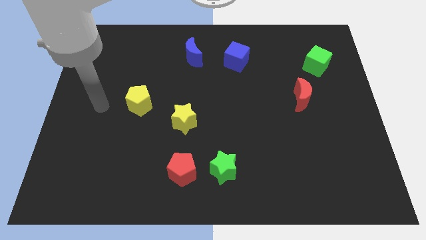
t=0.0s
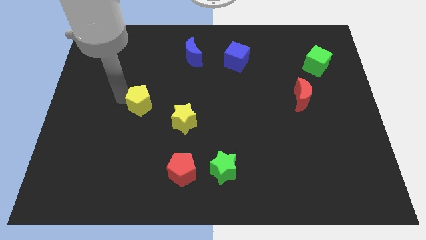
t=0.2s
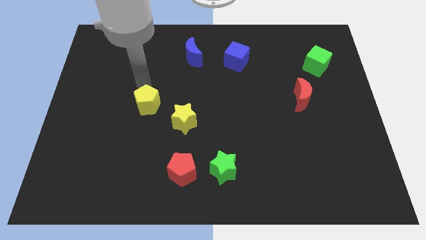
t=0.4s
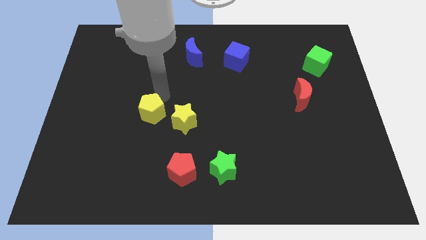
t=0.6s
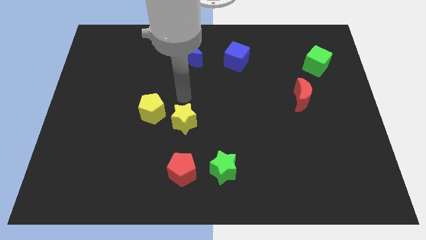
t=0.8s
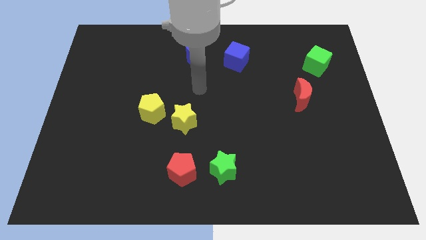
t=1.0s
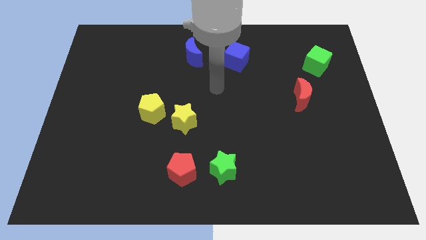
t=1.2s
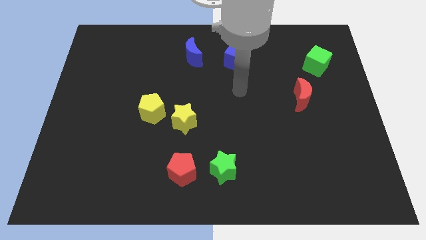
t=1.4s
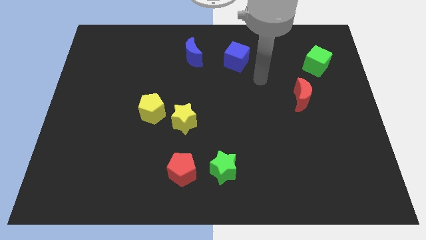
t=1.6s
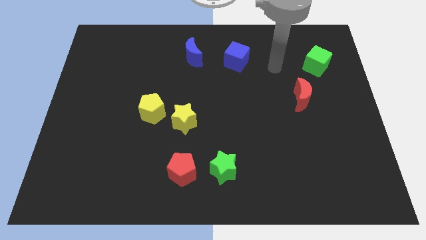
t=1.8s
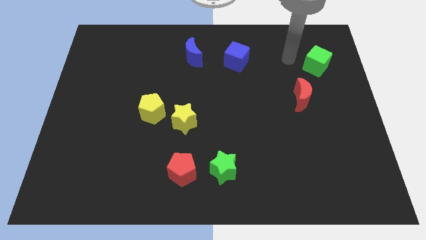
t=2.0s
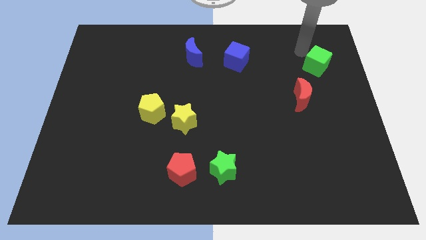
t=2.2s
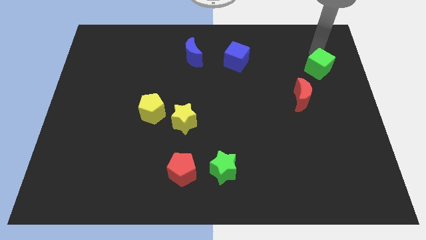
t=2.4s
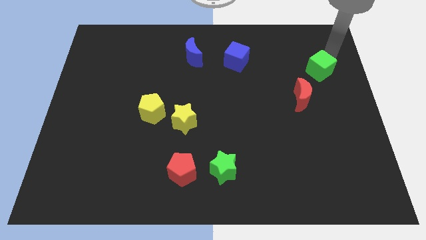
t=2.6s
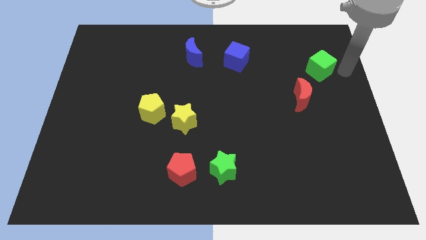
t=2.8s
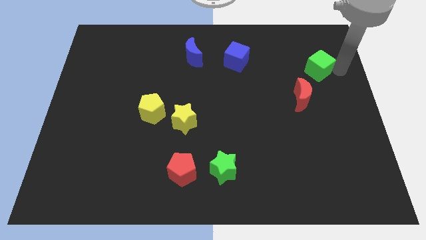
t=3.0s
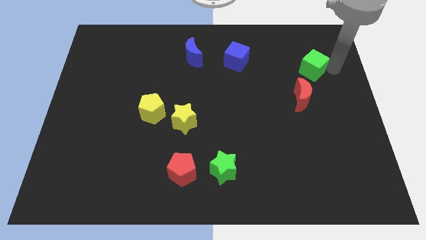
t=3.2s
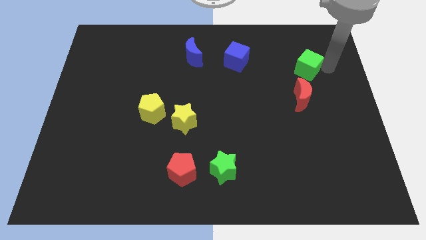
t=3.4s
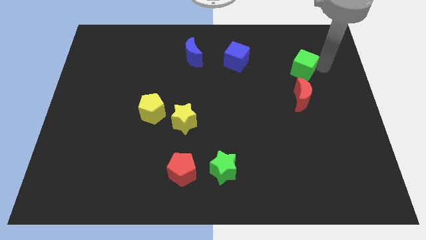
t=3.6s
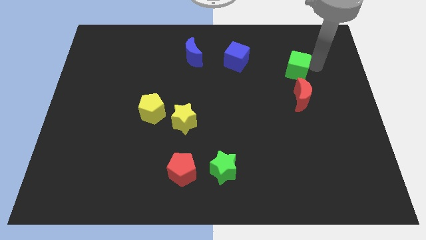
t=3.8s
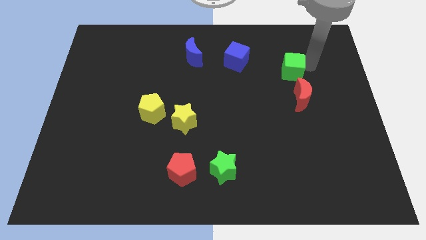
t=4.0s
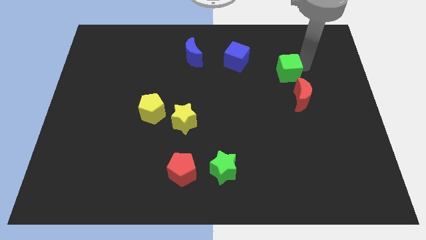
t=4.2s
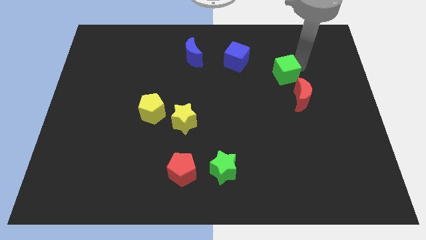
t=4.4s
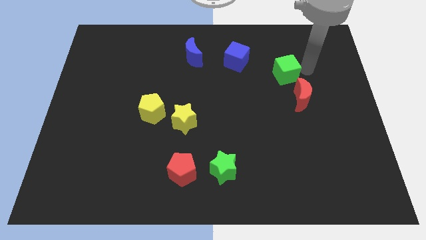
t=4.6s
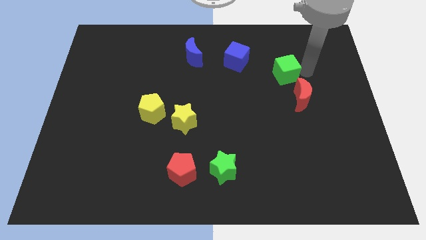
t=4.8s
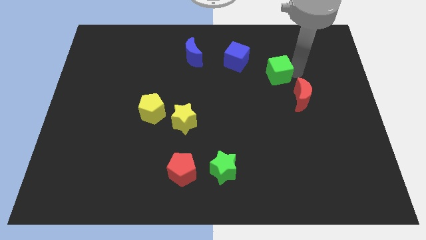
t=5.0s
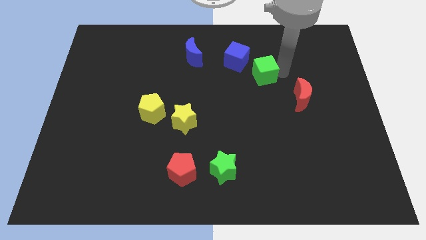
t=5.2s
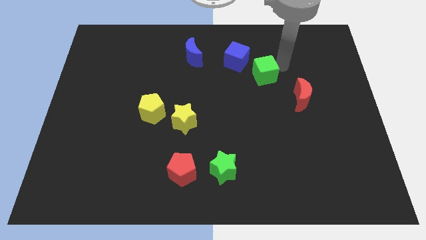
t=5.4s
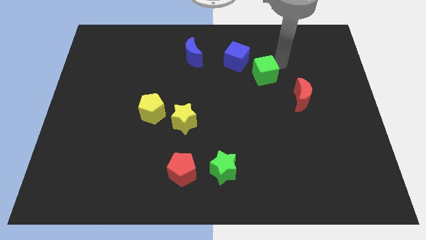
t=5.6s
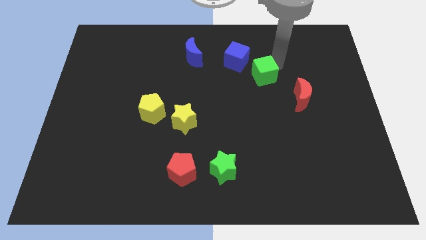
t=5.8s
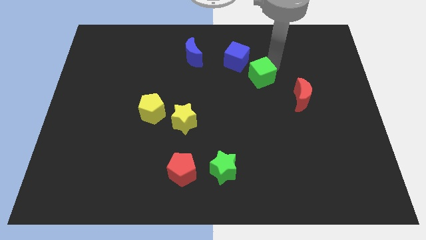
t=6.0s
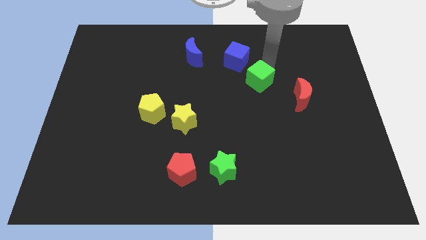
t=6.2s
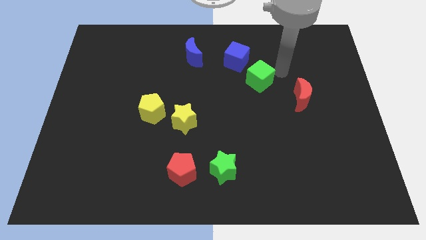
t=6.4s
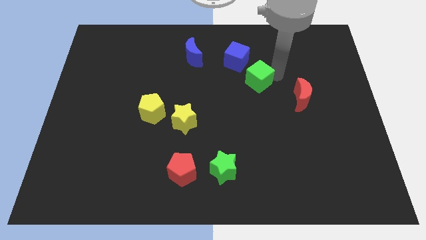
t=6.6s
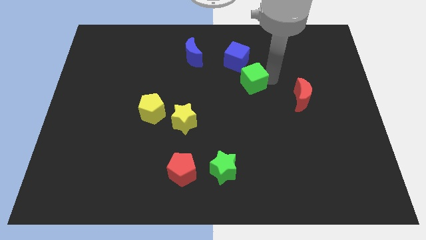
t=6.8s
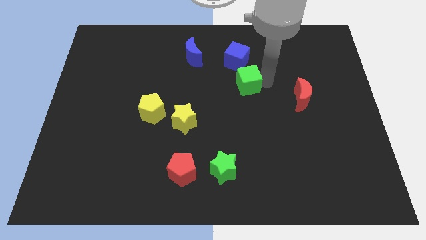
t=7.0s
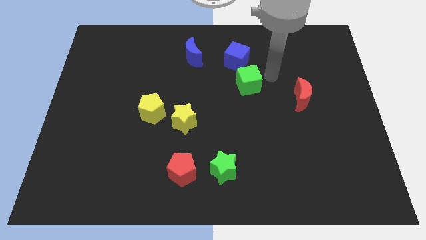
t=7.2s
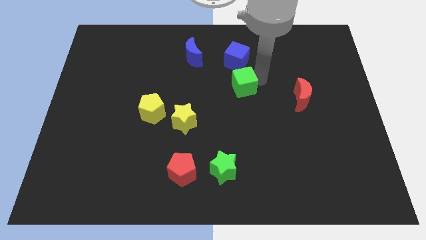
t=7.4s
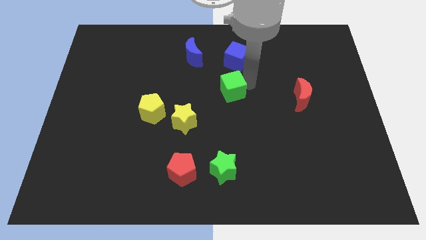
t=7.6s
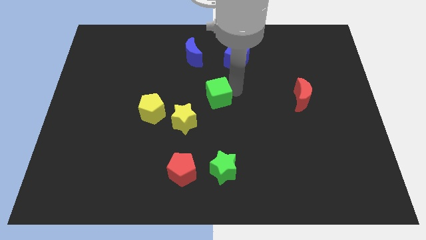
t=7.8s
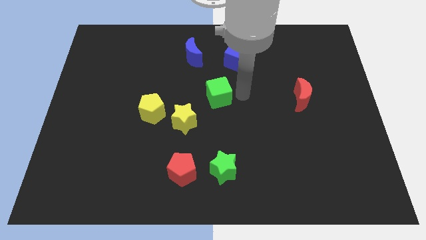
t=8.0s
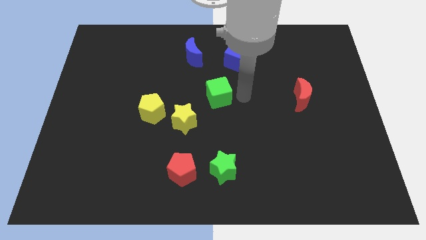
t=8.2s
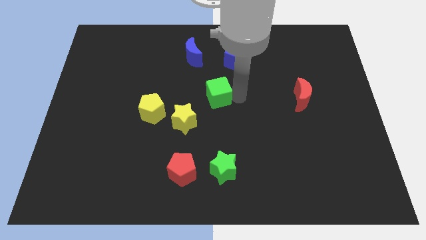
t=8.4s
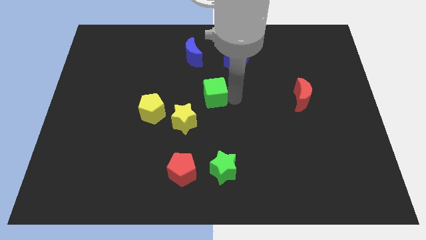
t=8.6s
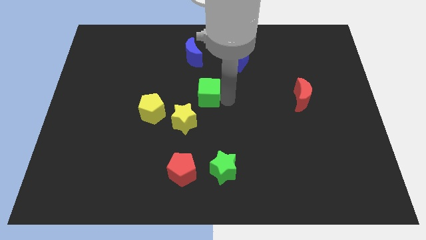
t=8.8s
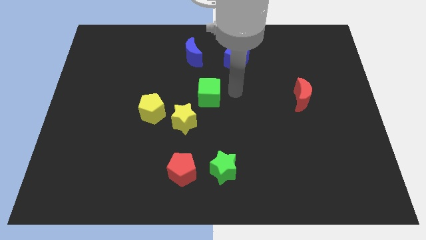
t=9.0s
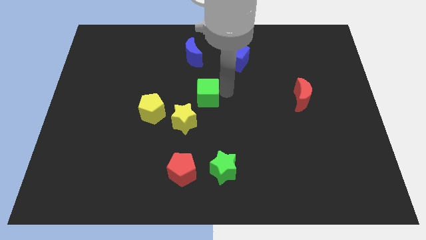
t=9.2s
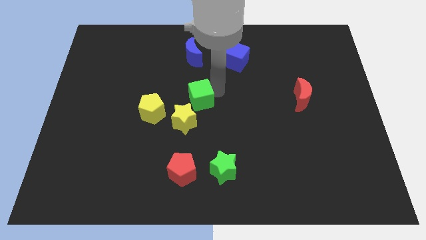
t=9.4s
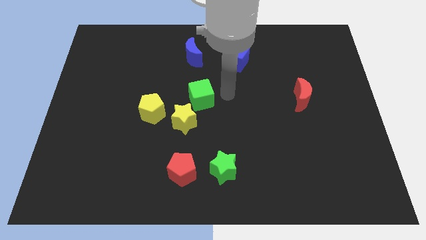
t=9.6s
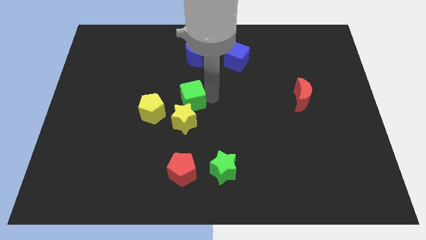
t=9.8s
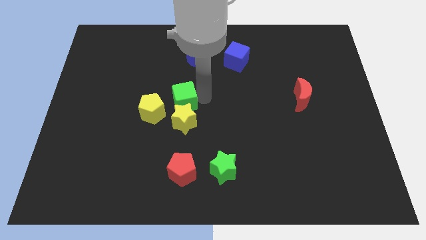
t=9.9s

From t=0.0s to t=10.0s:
push the green cube to the top left of the yellow star

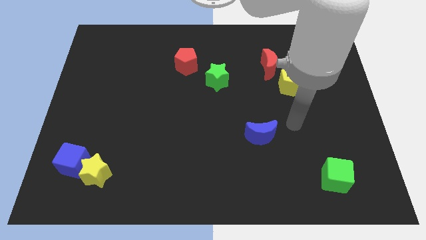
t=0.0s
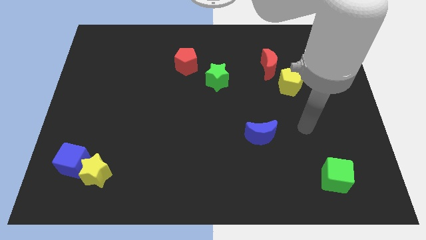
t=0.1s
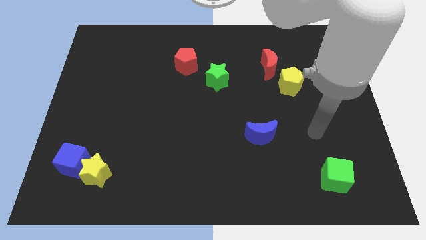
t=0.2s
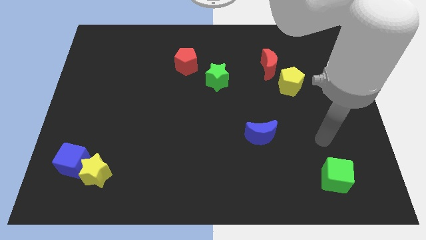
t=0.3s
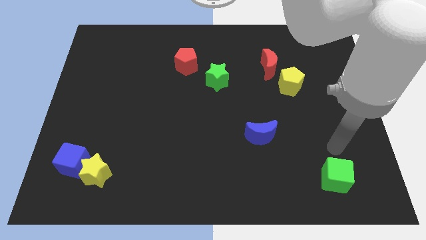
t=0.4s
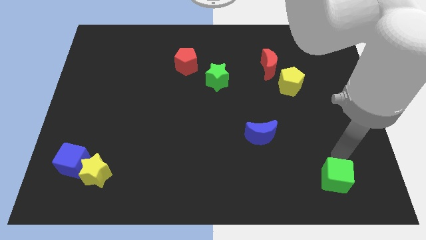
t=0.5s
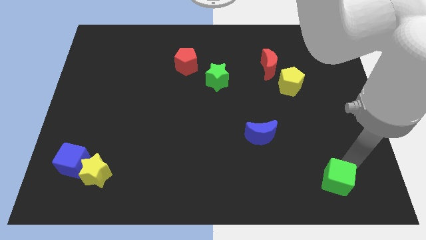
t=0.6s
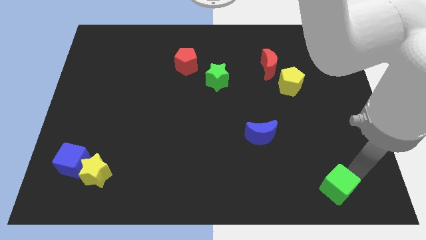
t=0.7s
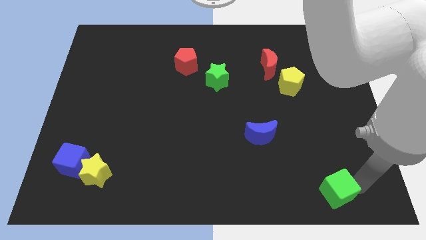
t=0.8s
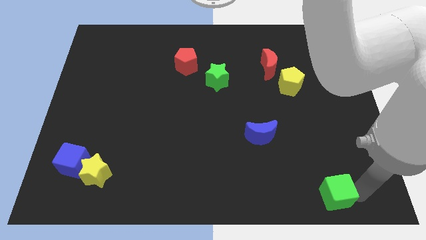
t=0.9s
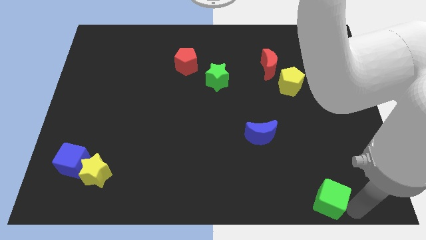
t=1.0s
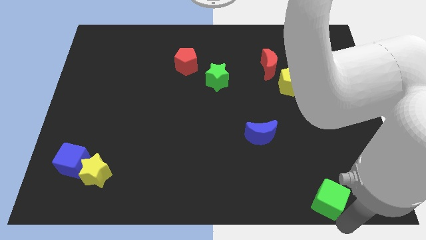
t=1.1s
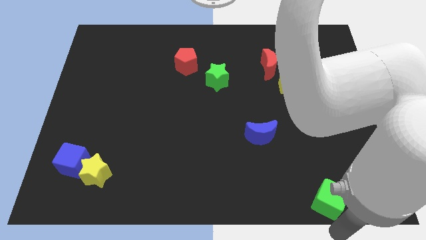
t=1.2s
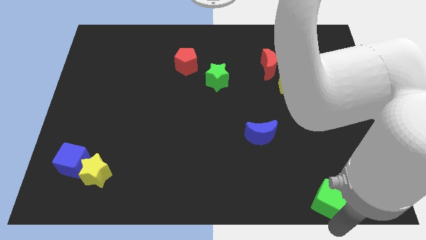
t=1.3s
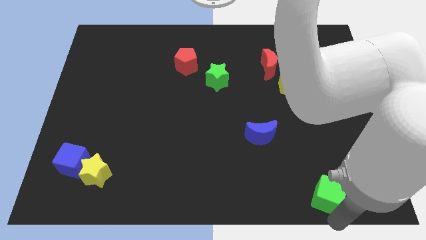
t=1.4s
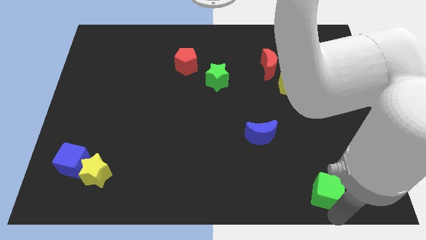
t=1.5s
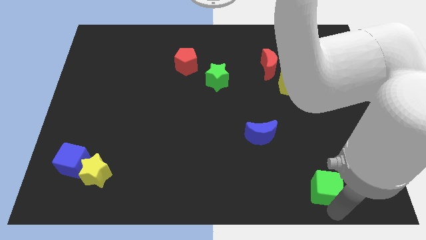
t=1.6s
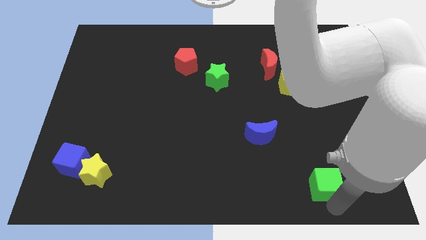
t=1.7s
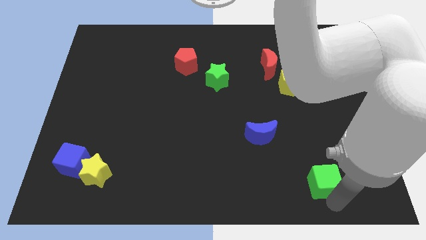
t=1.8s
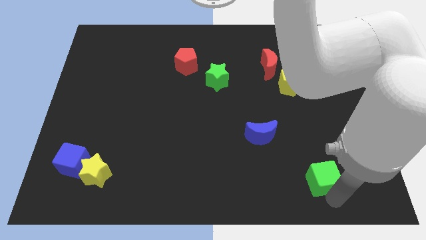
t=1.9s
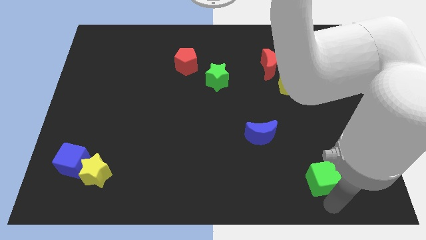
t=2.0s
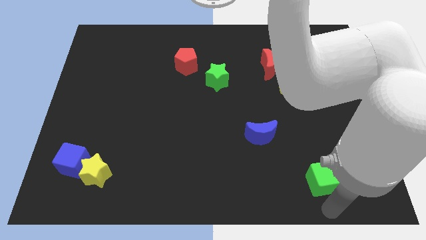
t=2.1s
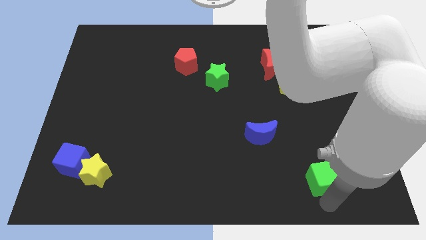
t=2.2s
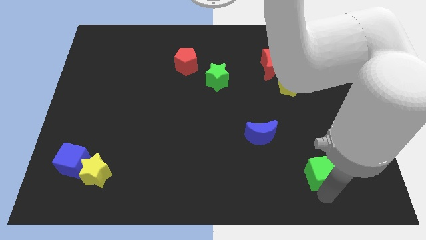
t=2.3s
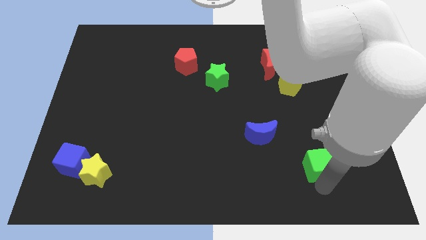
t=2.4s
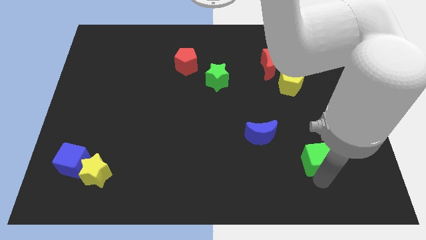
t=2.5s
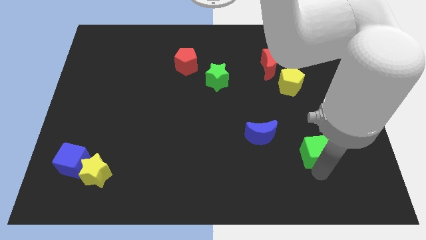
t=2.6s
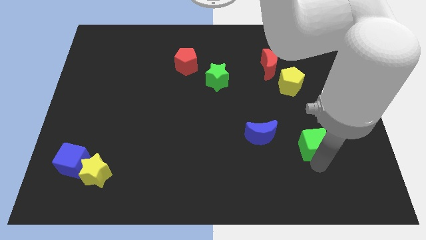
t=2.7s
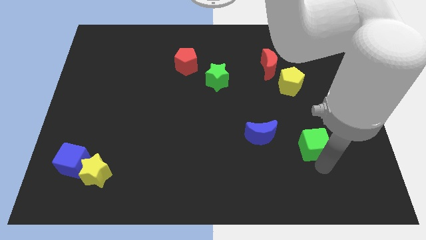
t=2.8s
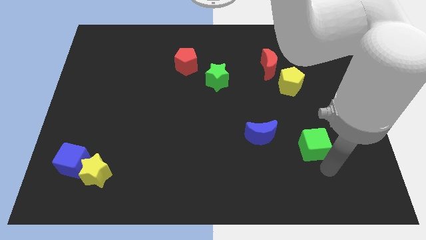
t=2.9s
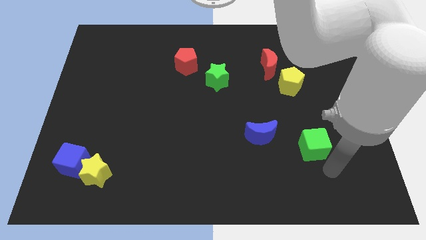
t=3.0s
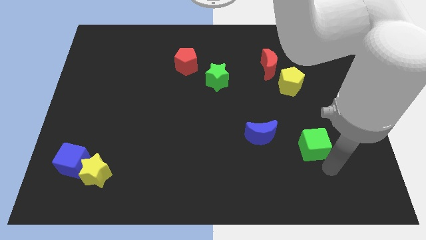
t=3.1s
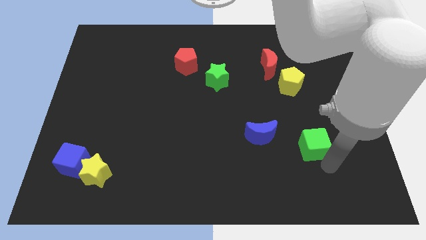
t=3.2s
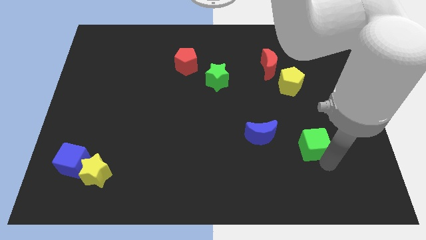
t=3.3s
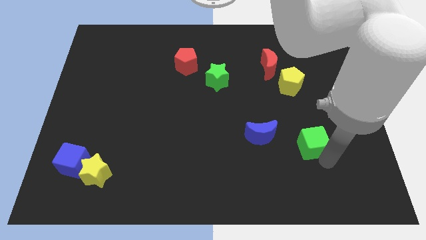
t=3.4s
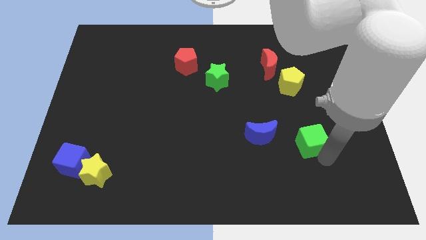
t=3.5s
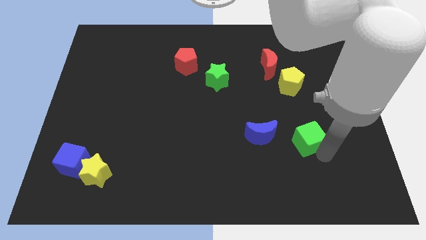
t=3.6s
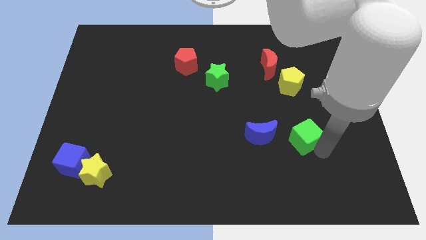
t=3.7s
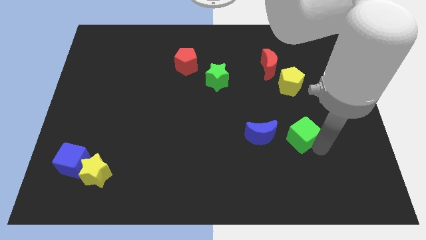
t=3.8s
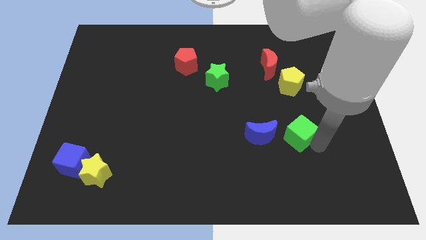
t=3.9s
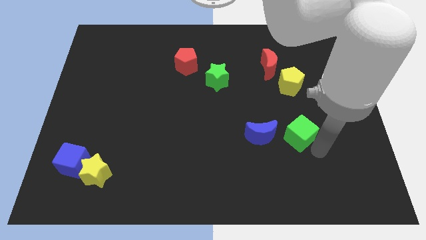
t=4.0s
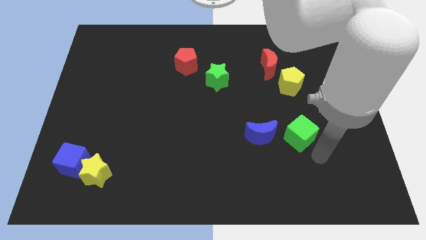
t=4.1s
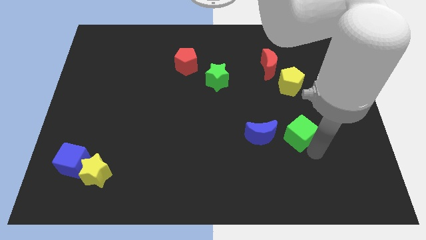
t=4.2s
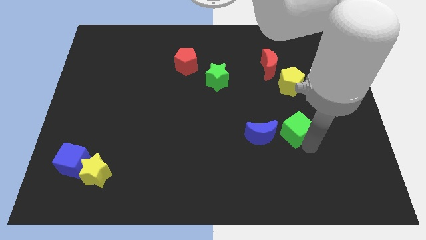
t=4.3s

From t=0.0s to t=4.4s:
push the green cube to the top right side of the blue moon
